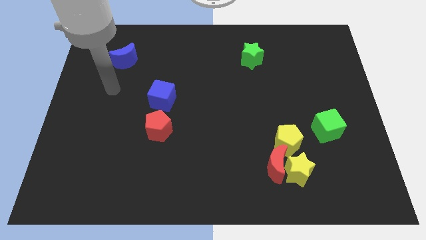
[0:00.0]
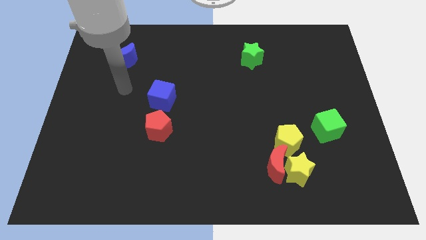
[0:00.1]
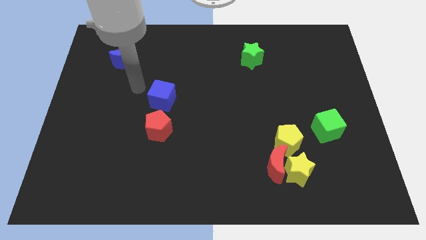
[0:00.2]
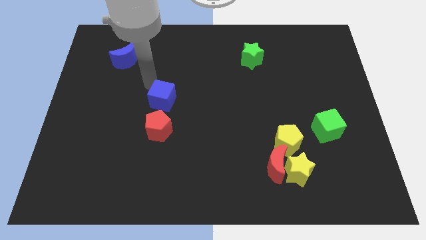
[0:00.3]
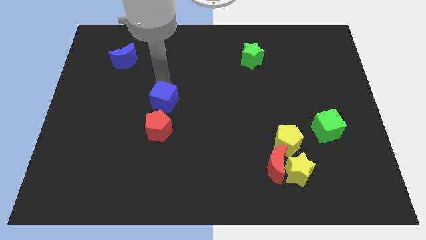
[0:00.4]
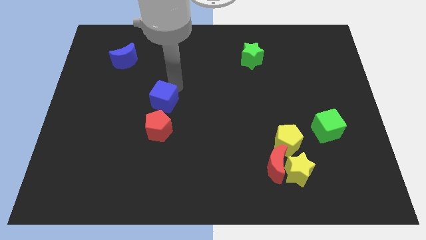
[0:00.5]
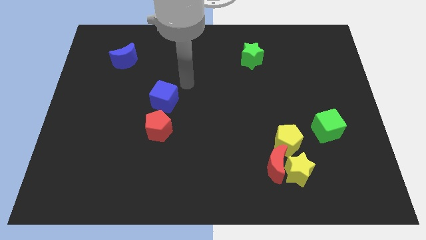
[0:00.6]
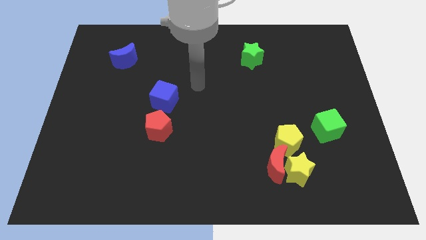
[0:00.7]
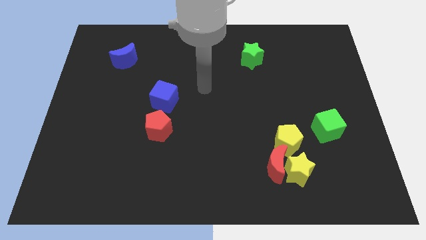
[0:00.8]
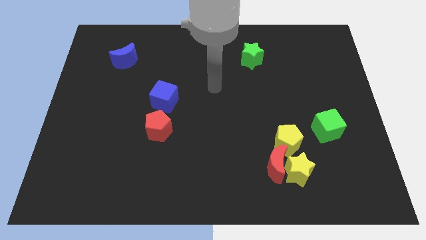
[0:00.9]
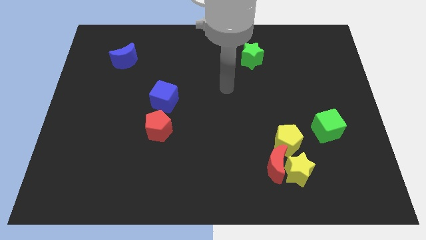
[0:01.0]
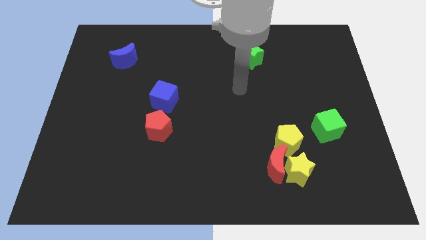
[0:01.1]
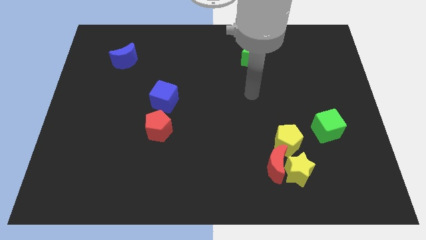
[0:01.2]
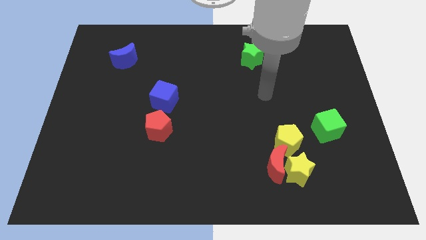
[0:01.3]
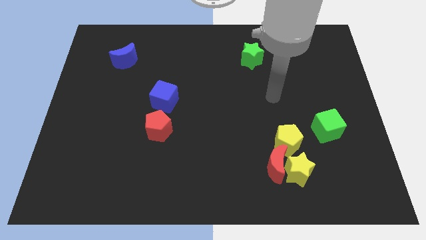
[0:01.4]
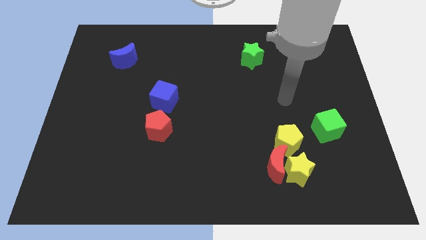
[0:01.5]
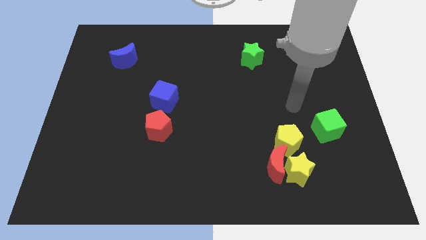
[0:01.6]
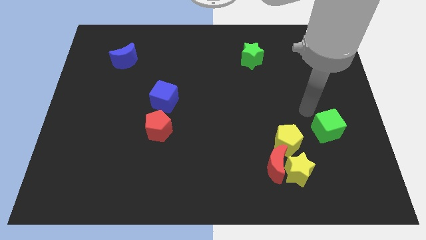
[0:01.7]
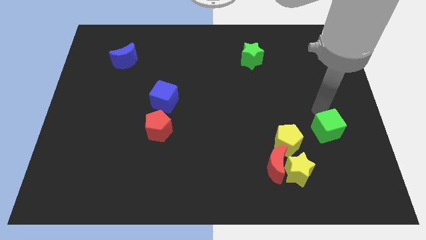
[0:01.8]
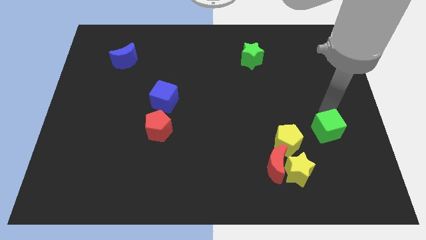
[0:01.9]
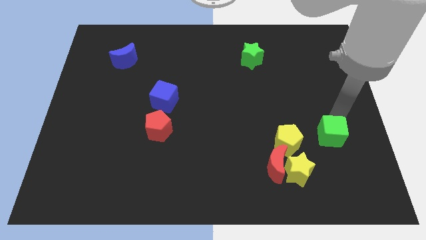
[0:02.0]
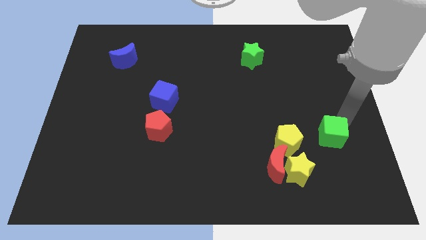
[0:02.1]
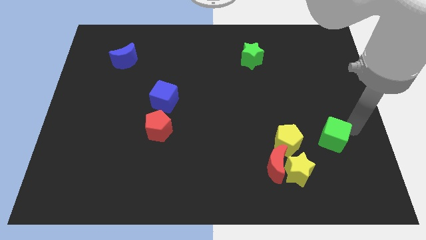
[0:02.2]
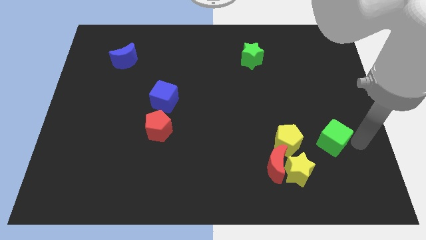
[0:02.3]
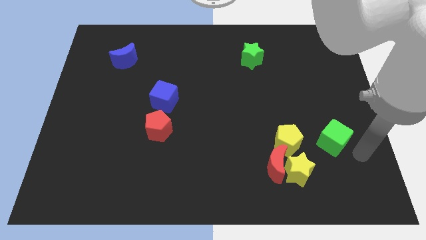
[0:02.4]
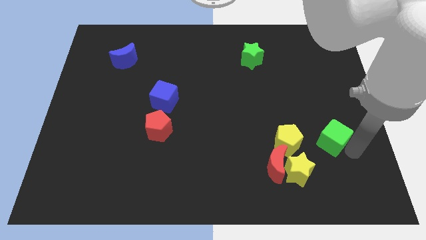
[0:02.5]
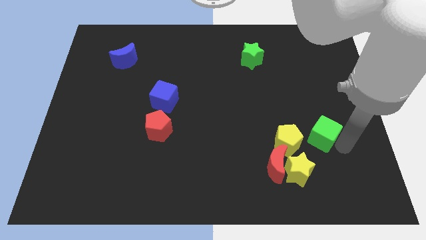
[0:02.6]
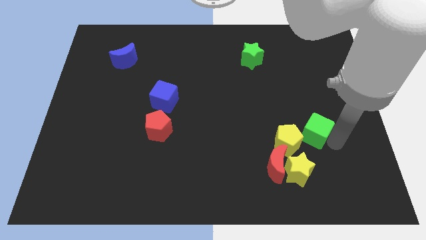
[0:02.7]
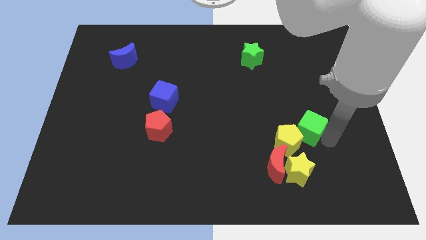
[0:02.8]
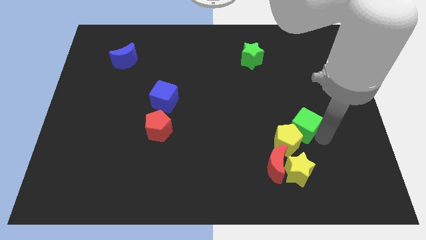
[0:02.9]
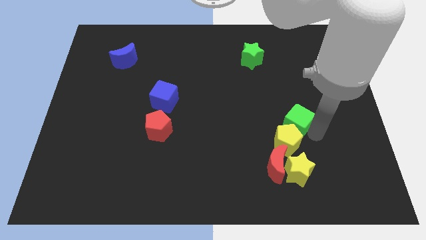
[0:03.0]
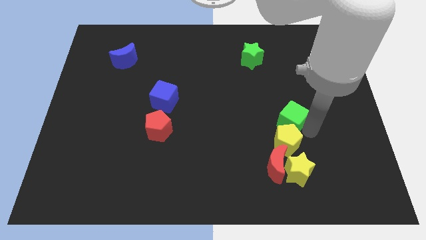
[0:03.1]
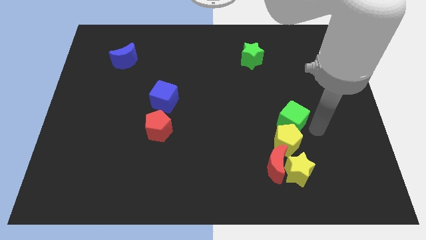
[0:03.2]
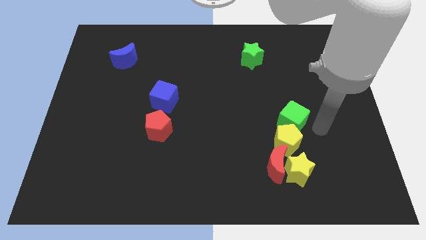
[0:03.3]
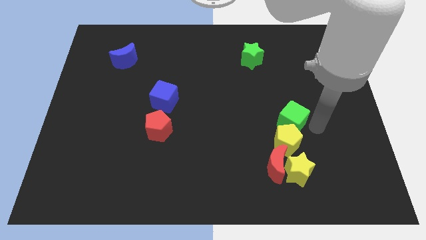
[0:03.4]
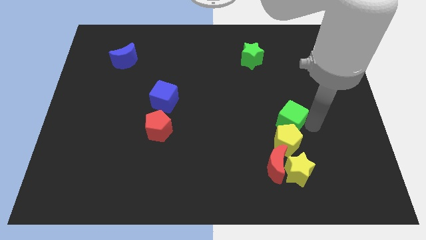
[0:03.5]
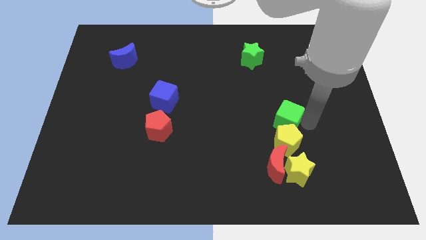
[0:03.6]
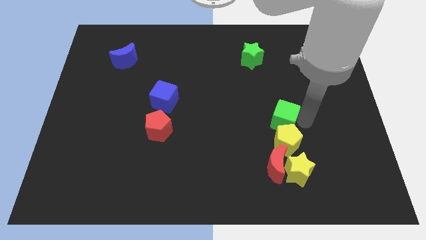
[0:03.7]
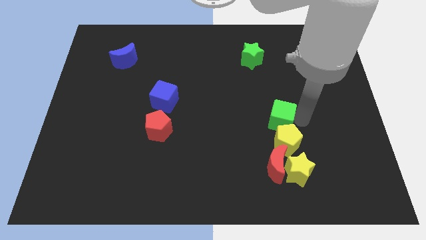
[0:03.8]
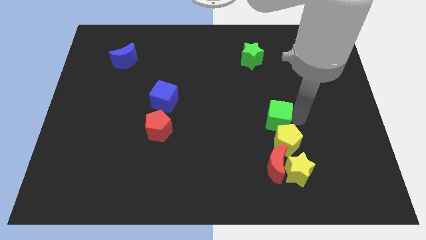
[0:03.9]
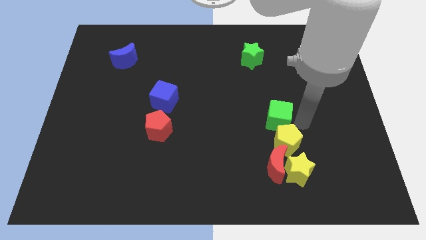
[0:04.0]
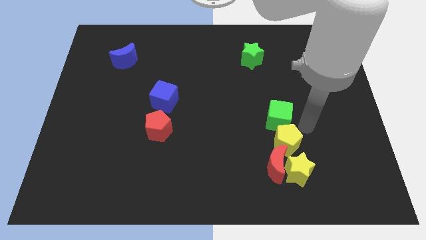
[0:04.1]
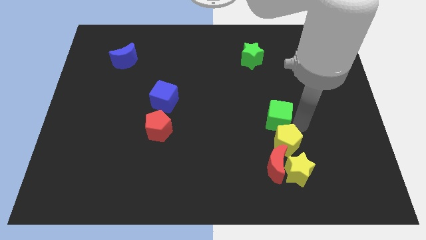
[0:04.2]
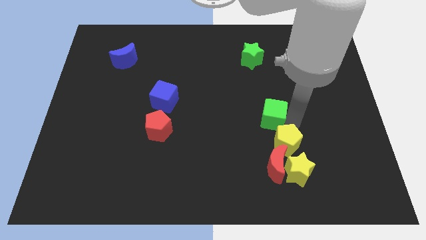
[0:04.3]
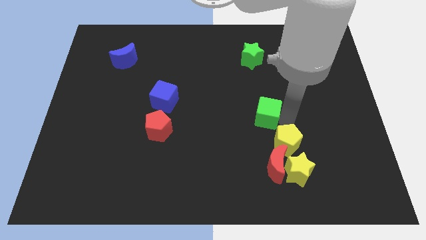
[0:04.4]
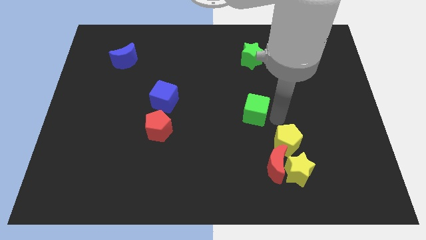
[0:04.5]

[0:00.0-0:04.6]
move the green cube to the middle

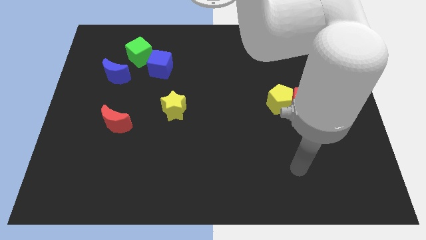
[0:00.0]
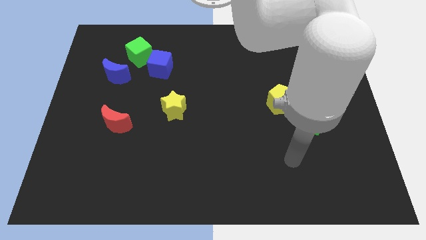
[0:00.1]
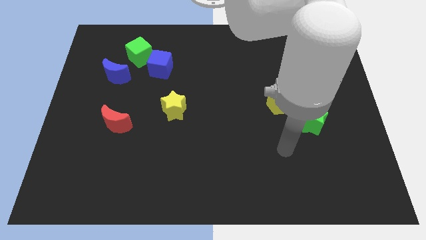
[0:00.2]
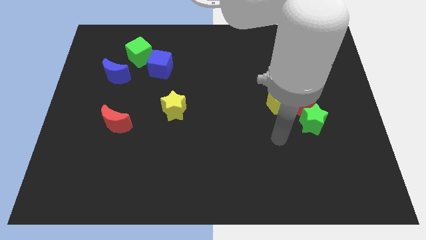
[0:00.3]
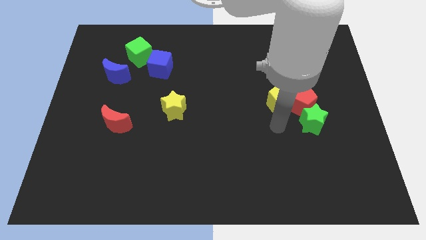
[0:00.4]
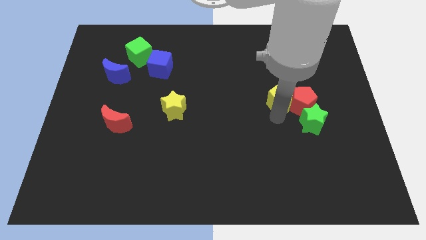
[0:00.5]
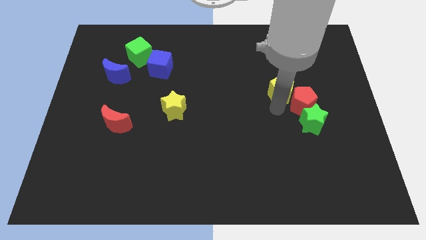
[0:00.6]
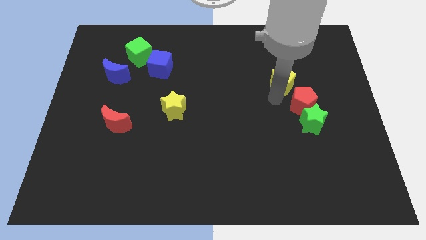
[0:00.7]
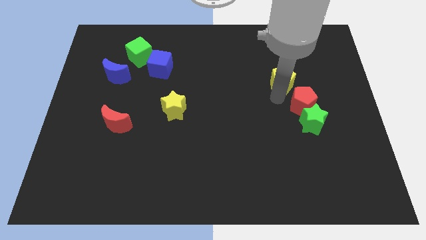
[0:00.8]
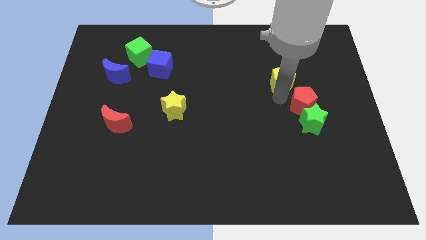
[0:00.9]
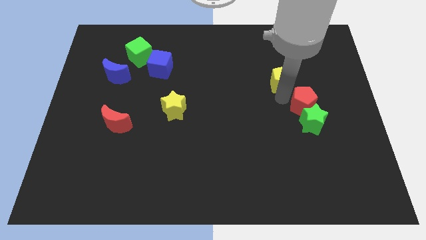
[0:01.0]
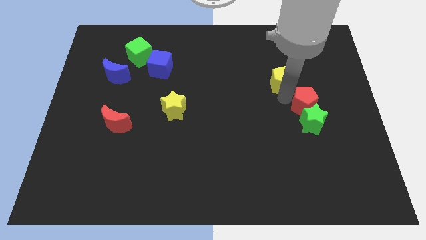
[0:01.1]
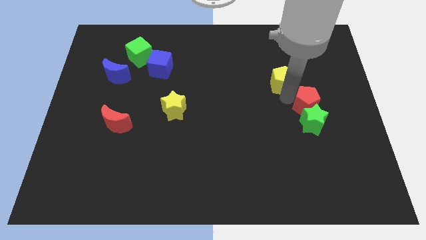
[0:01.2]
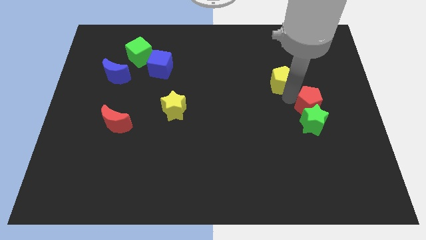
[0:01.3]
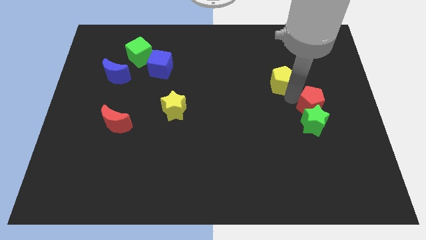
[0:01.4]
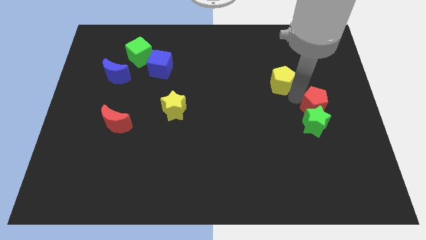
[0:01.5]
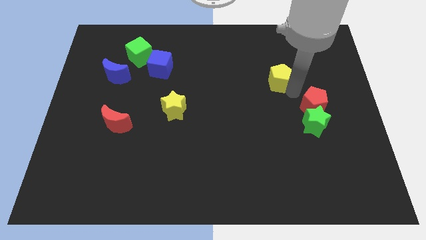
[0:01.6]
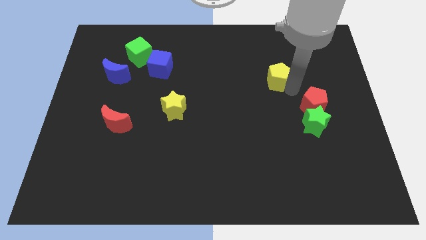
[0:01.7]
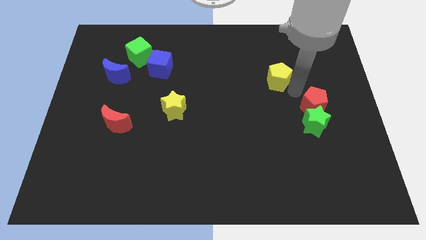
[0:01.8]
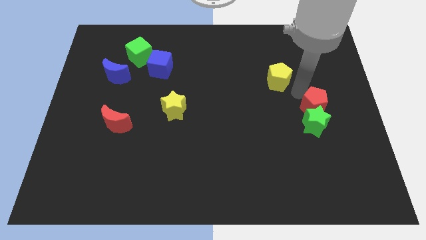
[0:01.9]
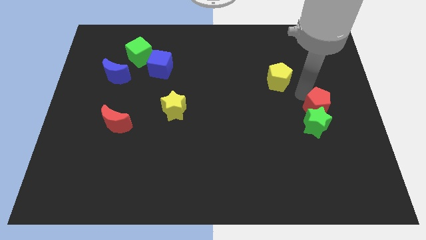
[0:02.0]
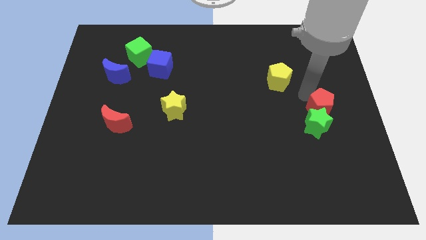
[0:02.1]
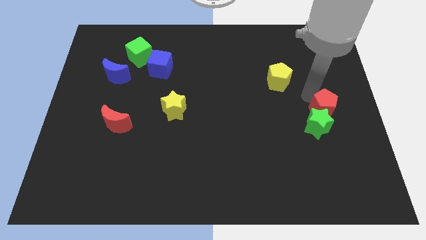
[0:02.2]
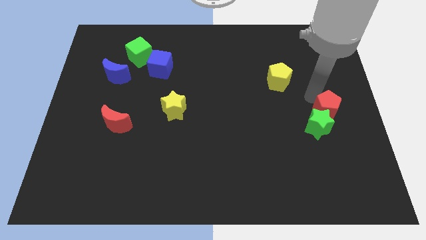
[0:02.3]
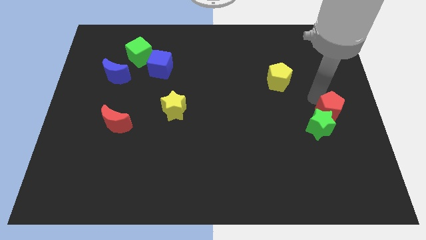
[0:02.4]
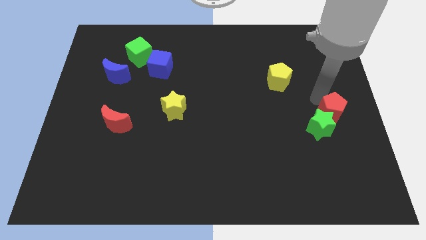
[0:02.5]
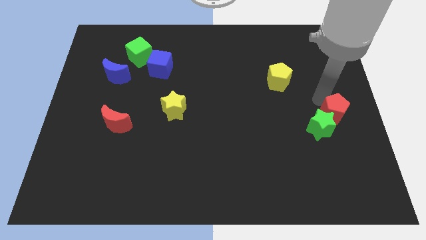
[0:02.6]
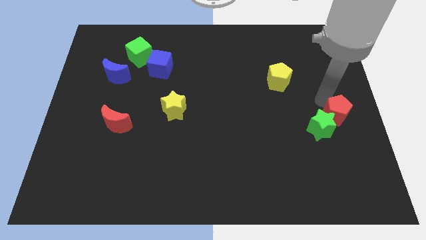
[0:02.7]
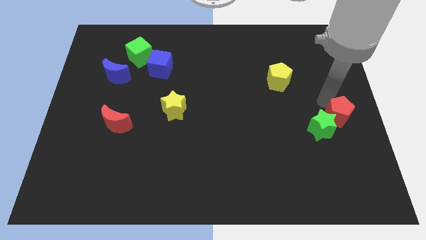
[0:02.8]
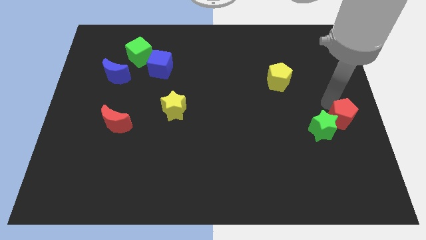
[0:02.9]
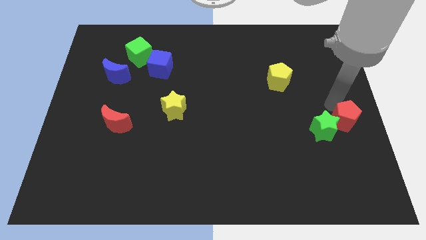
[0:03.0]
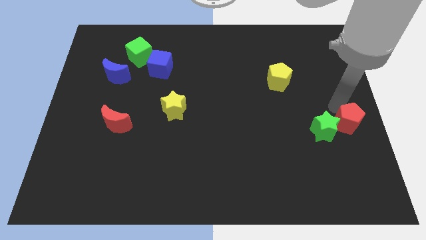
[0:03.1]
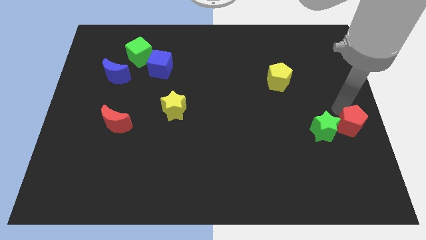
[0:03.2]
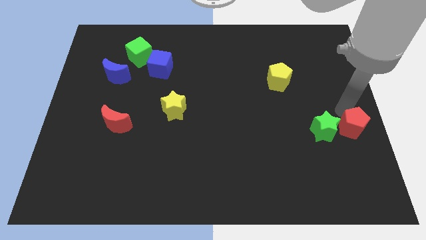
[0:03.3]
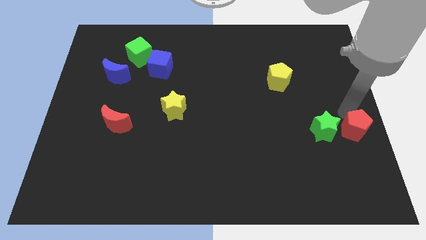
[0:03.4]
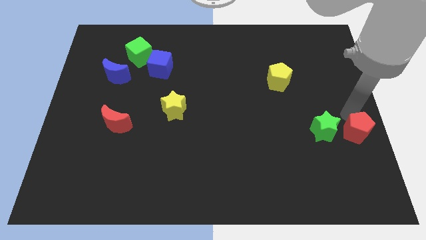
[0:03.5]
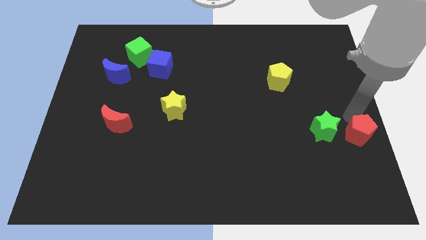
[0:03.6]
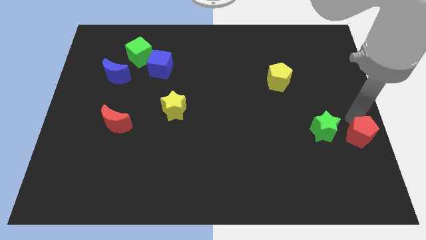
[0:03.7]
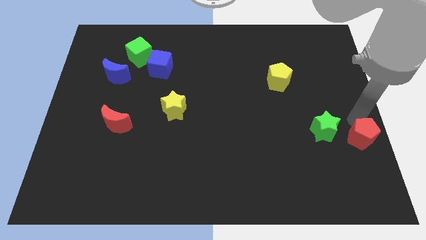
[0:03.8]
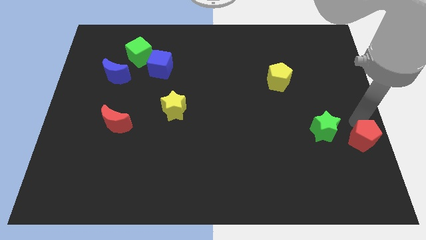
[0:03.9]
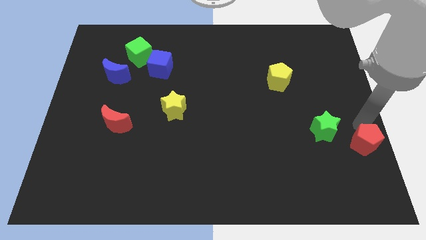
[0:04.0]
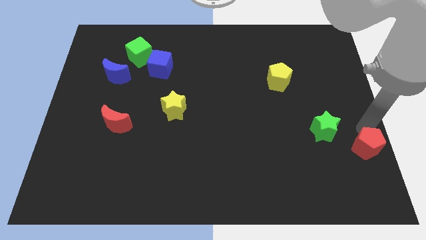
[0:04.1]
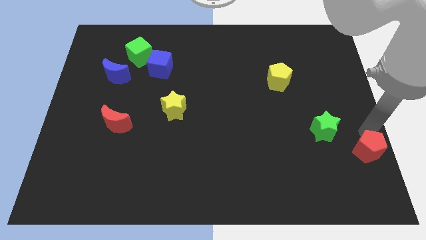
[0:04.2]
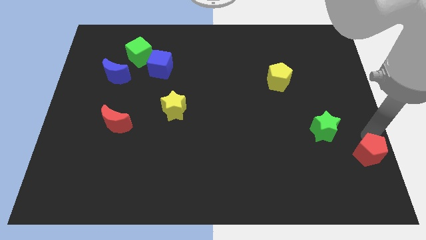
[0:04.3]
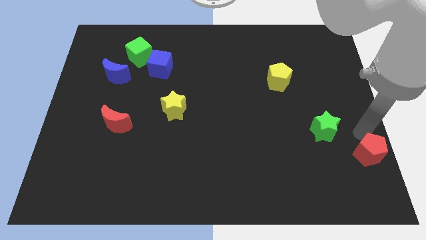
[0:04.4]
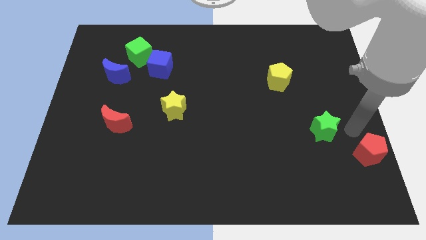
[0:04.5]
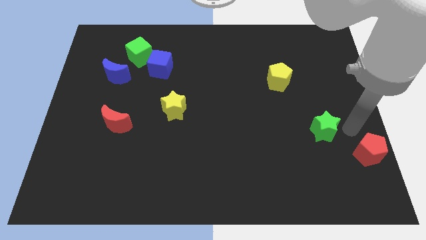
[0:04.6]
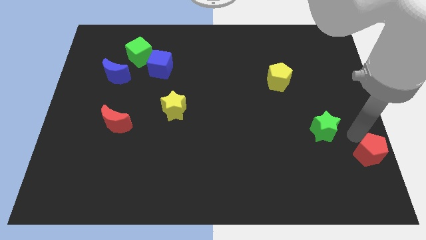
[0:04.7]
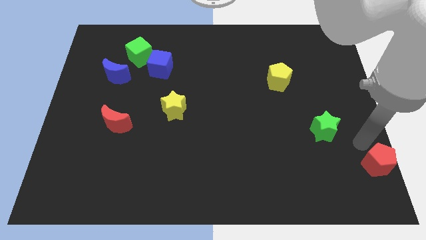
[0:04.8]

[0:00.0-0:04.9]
slide the red pentagon to the lower right corner
